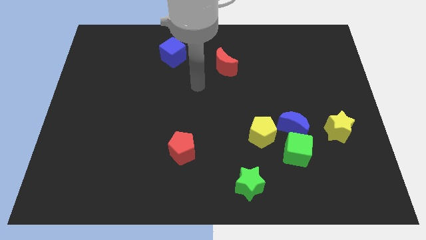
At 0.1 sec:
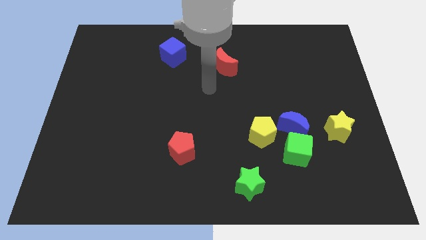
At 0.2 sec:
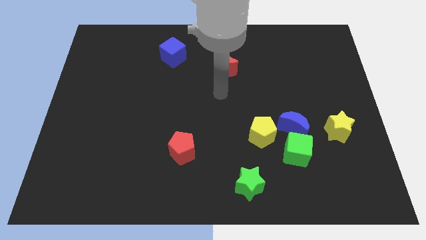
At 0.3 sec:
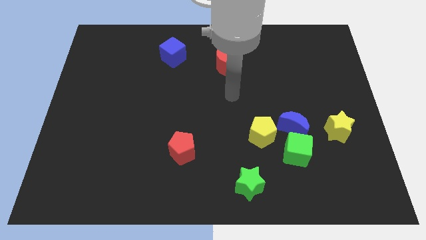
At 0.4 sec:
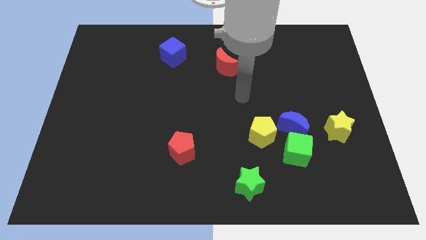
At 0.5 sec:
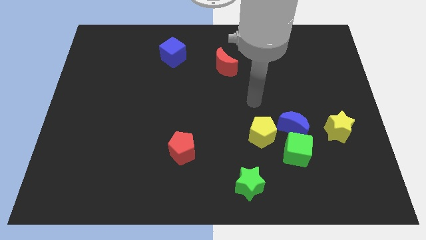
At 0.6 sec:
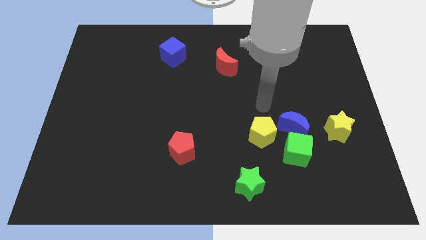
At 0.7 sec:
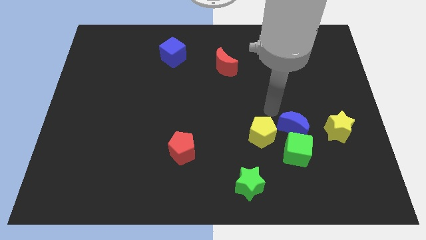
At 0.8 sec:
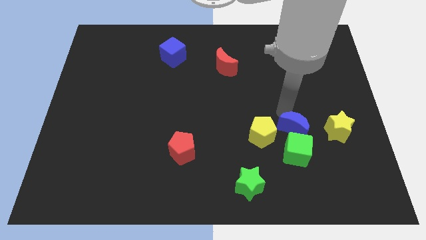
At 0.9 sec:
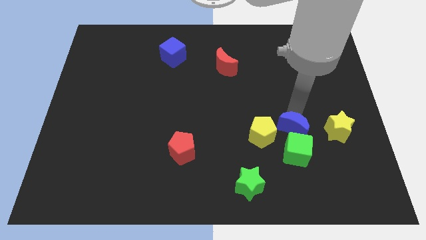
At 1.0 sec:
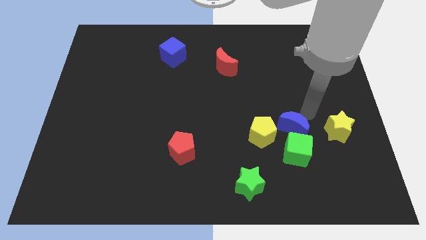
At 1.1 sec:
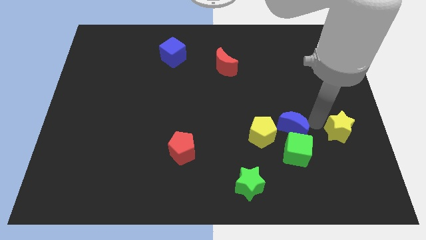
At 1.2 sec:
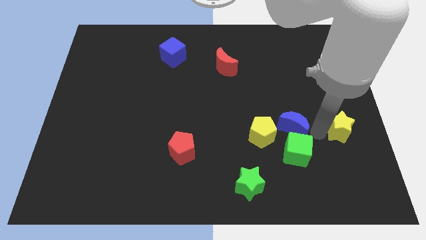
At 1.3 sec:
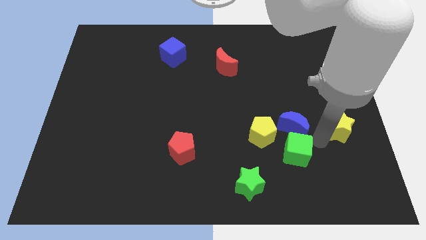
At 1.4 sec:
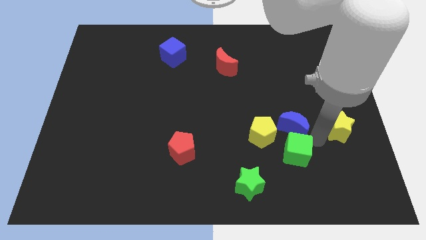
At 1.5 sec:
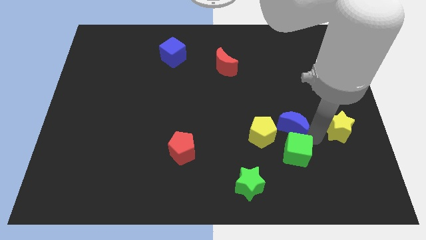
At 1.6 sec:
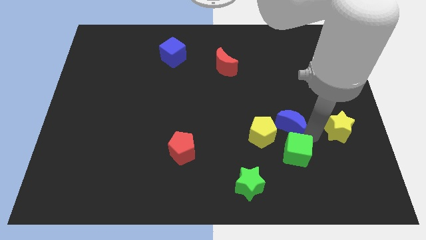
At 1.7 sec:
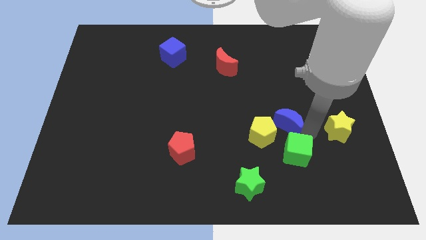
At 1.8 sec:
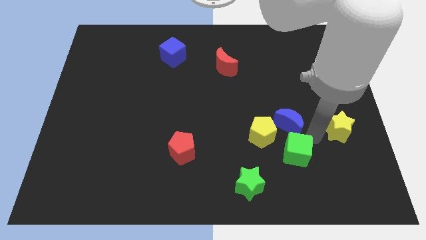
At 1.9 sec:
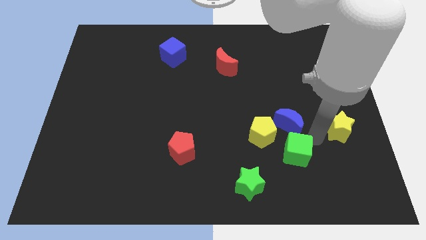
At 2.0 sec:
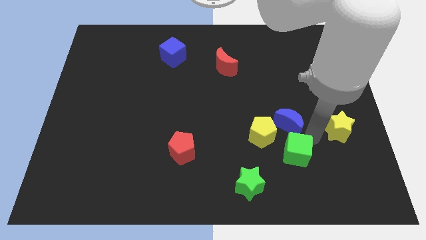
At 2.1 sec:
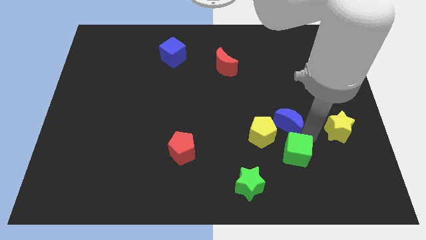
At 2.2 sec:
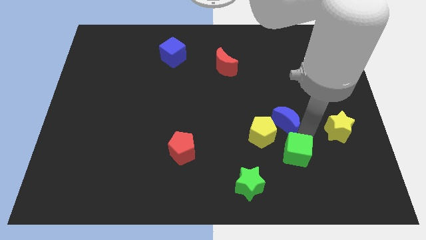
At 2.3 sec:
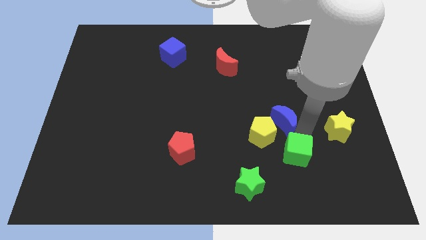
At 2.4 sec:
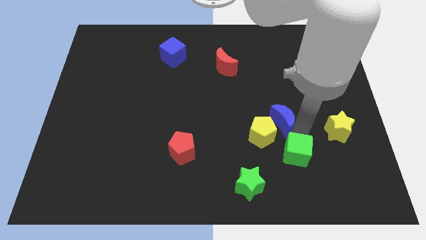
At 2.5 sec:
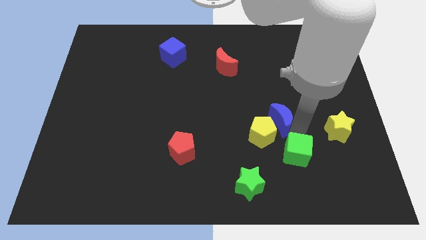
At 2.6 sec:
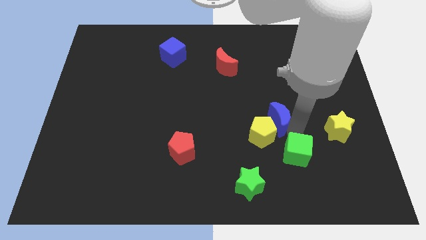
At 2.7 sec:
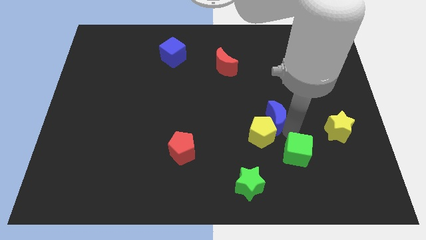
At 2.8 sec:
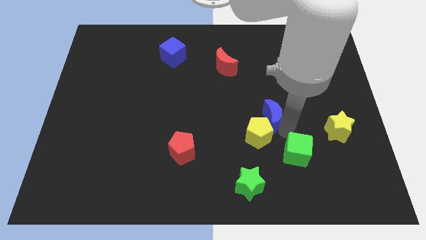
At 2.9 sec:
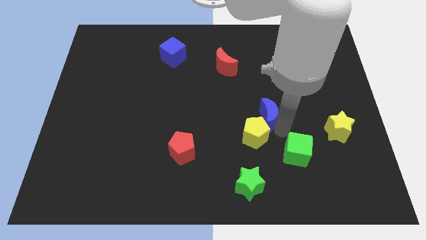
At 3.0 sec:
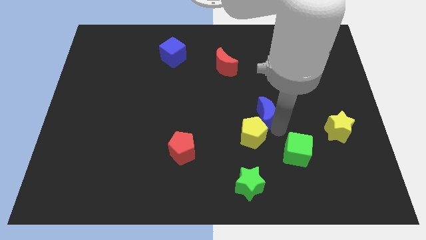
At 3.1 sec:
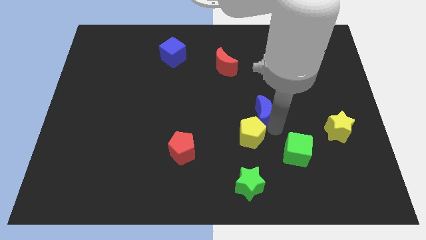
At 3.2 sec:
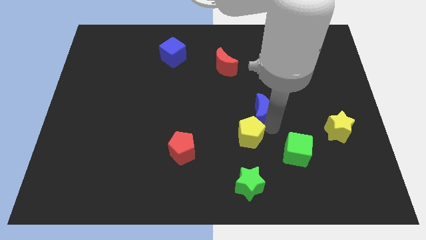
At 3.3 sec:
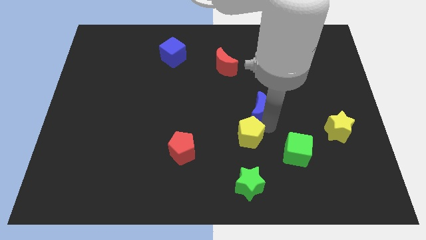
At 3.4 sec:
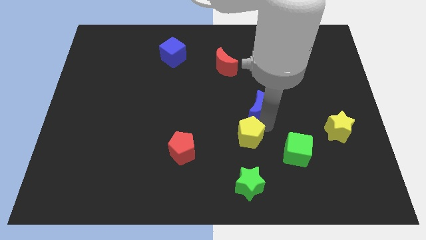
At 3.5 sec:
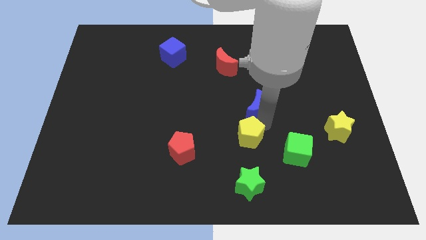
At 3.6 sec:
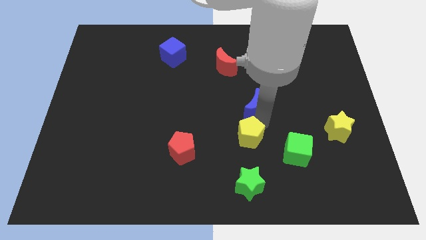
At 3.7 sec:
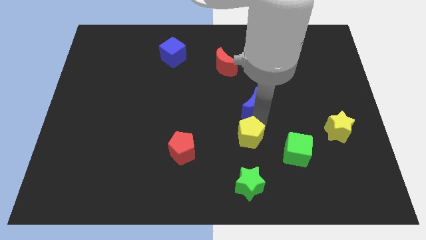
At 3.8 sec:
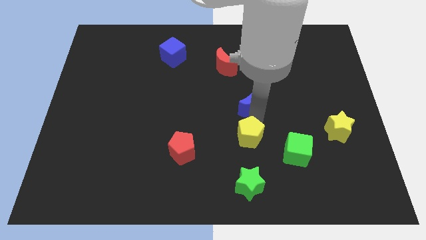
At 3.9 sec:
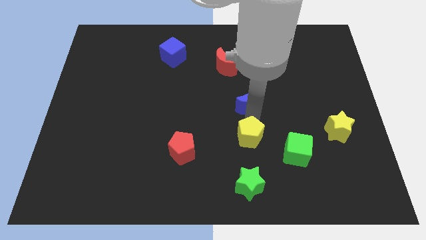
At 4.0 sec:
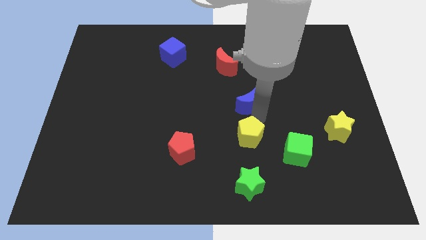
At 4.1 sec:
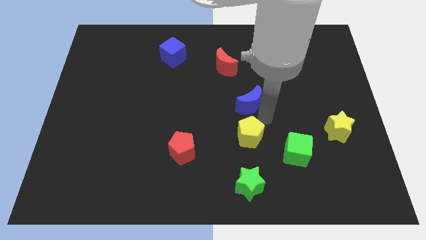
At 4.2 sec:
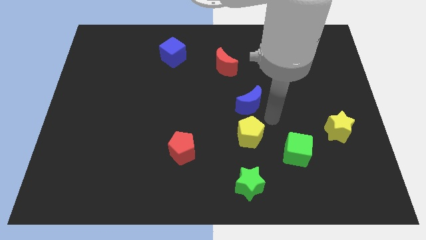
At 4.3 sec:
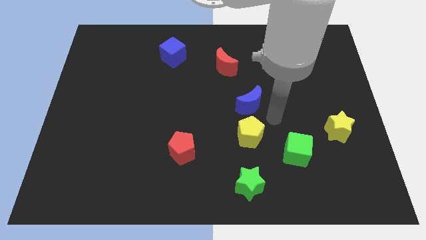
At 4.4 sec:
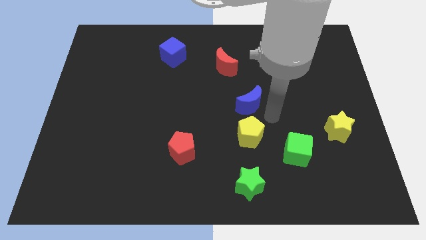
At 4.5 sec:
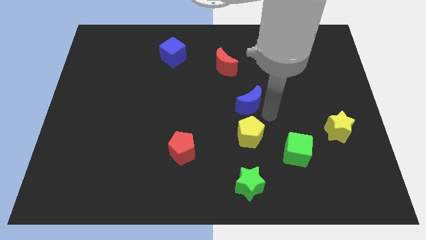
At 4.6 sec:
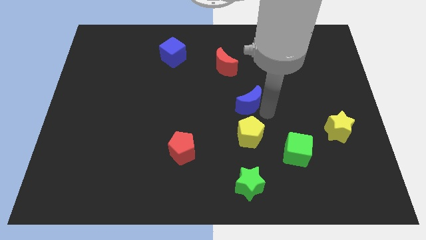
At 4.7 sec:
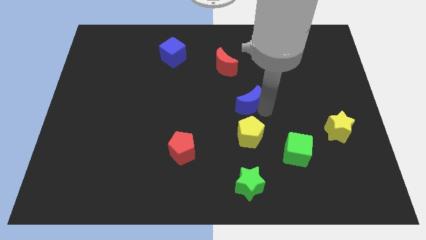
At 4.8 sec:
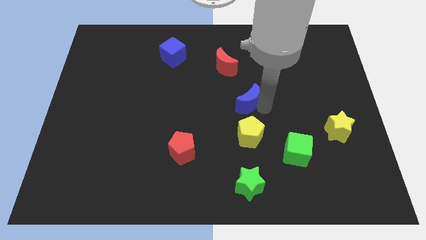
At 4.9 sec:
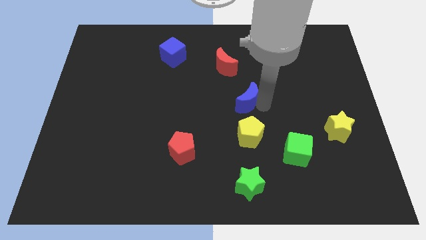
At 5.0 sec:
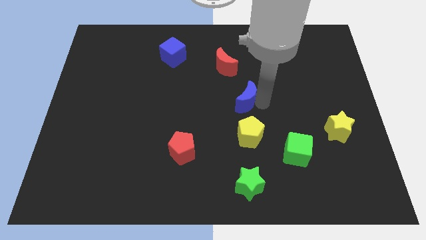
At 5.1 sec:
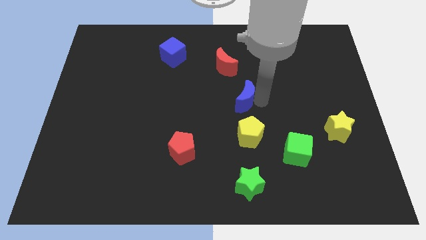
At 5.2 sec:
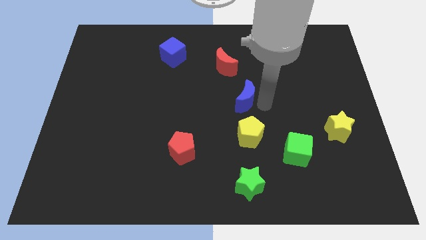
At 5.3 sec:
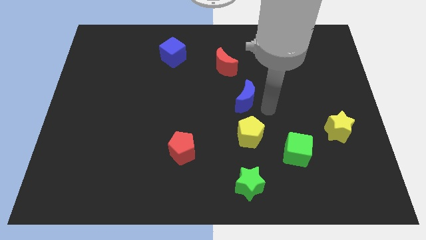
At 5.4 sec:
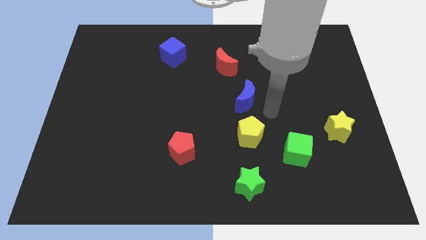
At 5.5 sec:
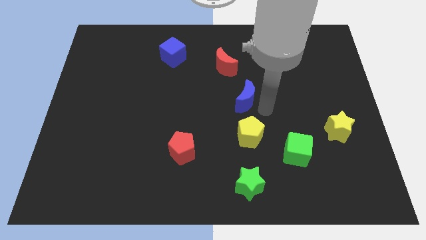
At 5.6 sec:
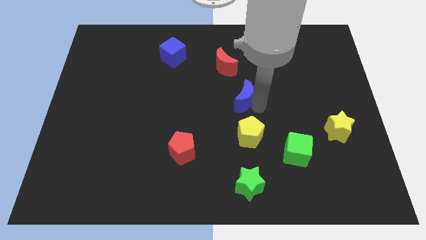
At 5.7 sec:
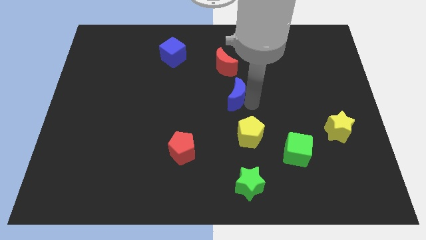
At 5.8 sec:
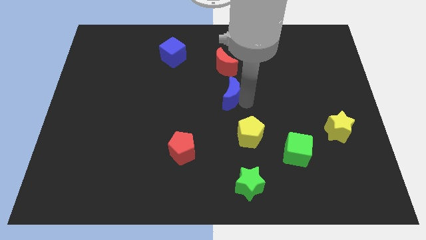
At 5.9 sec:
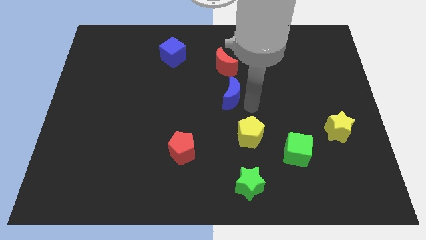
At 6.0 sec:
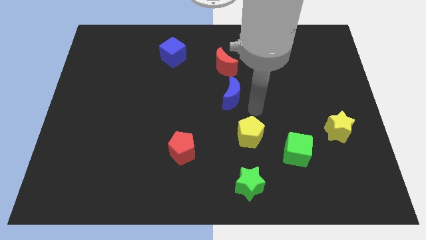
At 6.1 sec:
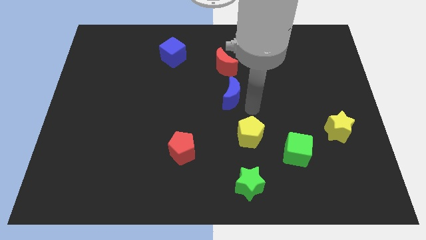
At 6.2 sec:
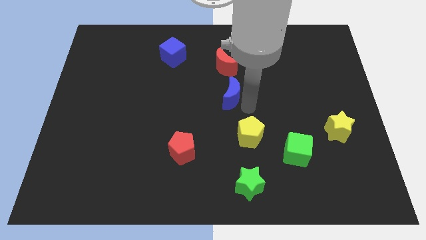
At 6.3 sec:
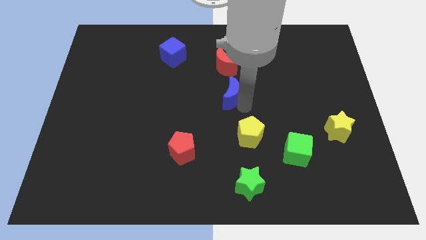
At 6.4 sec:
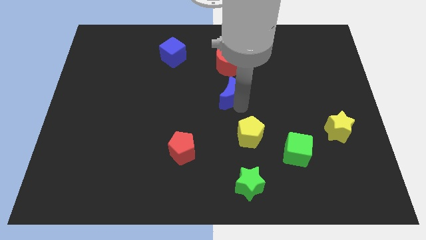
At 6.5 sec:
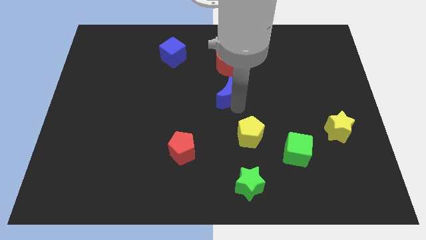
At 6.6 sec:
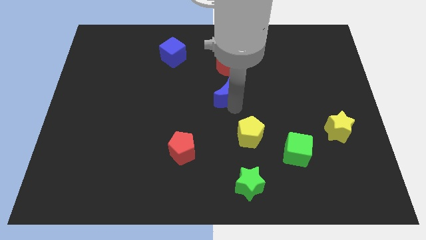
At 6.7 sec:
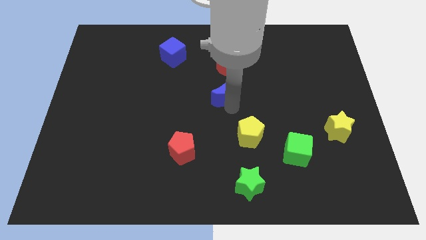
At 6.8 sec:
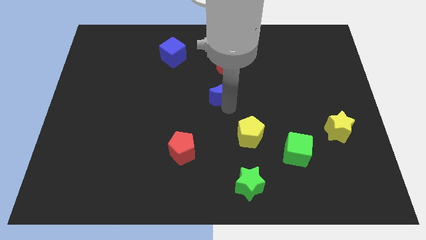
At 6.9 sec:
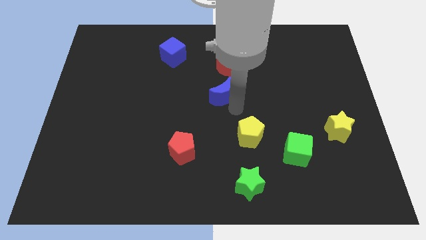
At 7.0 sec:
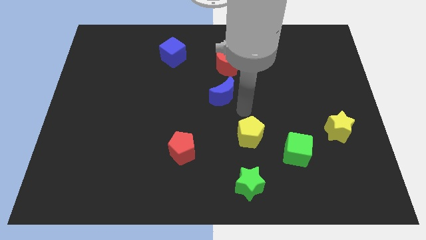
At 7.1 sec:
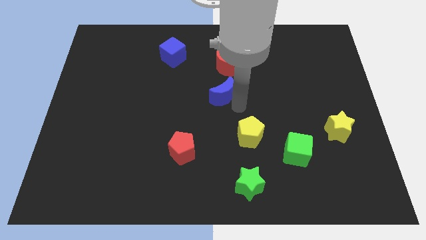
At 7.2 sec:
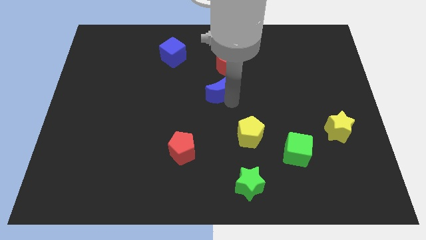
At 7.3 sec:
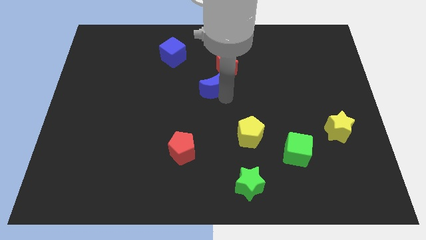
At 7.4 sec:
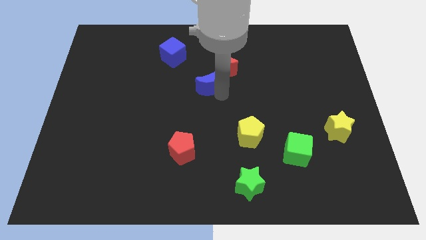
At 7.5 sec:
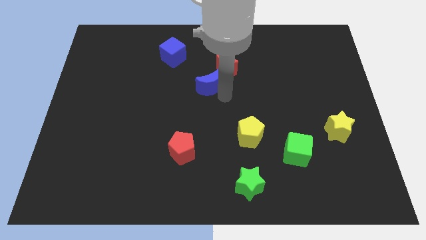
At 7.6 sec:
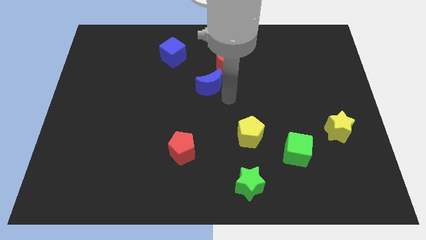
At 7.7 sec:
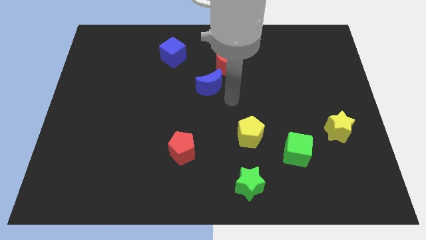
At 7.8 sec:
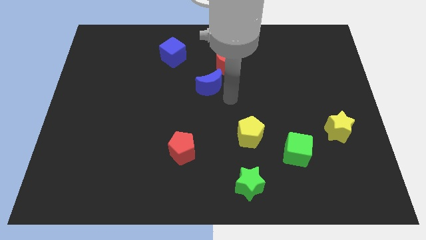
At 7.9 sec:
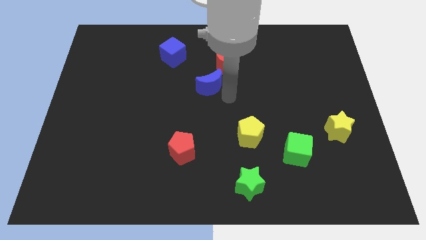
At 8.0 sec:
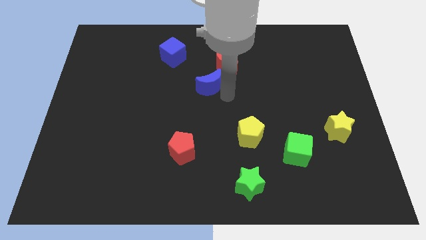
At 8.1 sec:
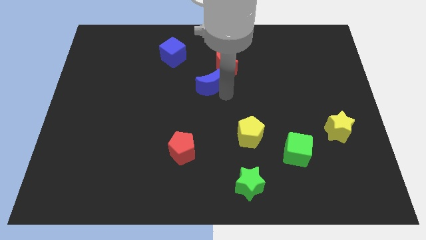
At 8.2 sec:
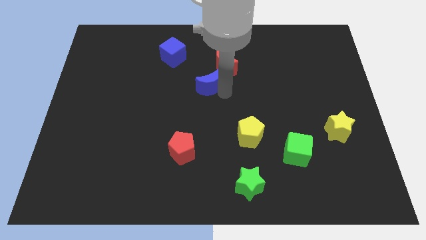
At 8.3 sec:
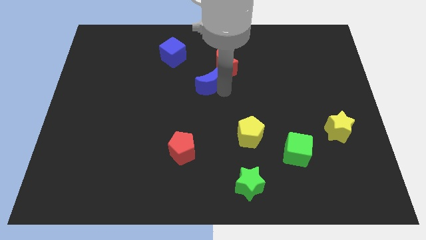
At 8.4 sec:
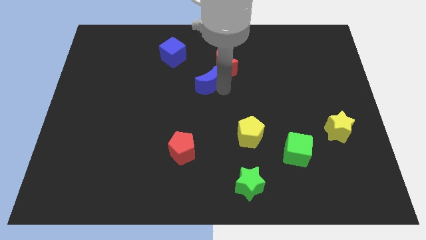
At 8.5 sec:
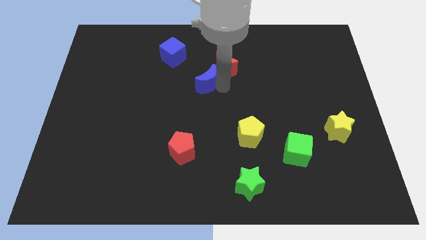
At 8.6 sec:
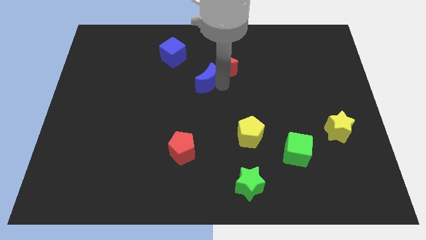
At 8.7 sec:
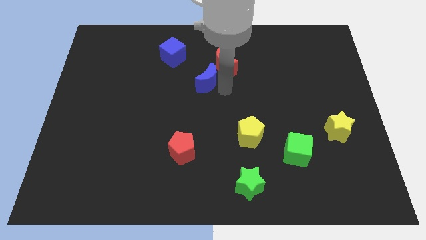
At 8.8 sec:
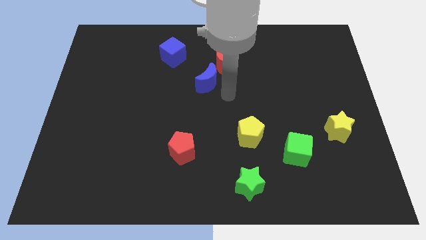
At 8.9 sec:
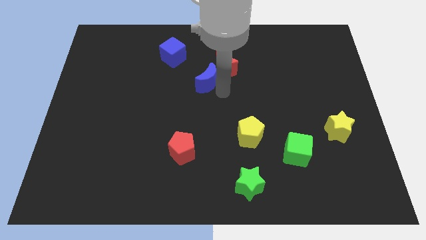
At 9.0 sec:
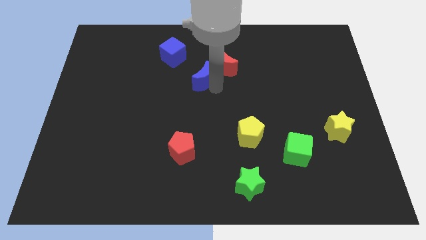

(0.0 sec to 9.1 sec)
put the blue moon just left of the red moon
